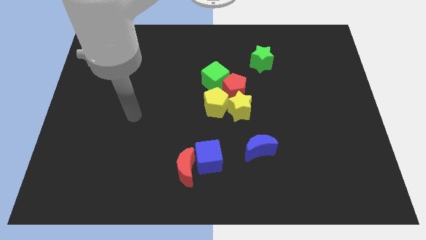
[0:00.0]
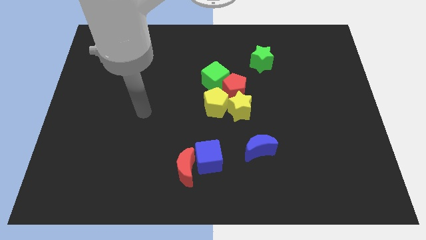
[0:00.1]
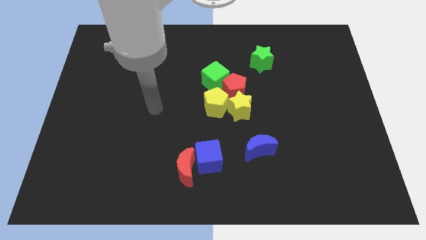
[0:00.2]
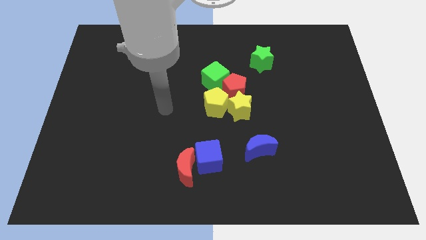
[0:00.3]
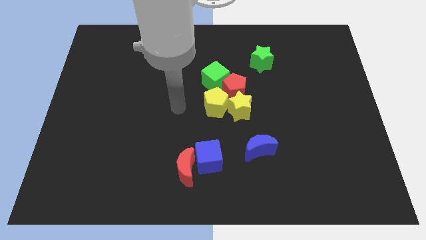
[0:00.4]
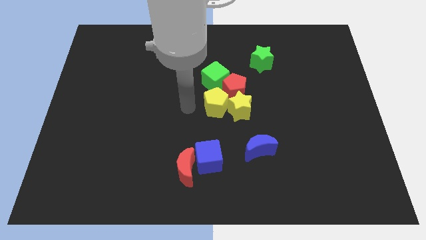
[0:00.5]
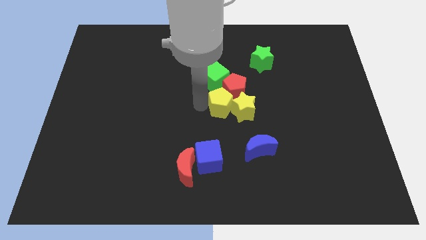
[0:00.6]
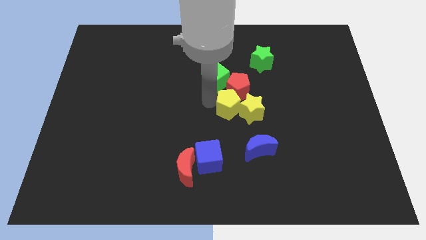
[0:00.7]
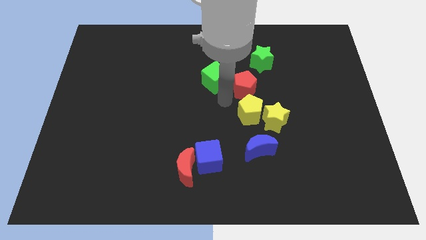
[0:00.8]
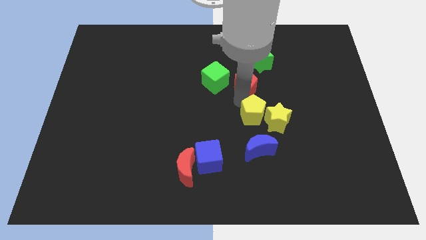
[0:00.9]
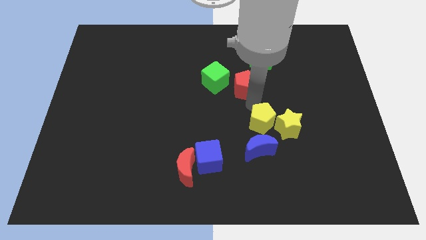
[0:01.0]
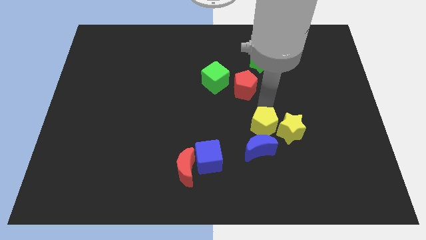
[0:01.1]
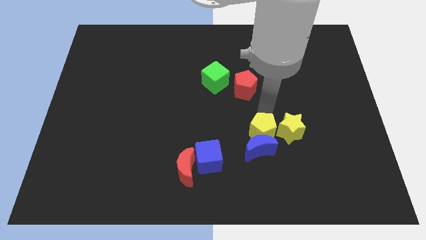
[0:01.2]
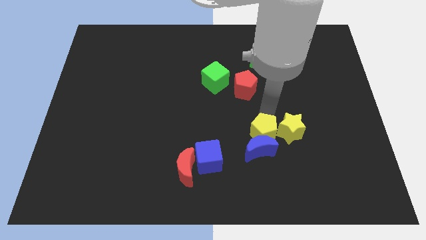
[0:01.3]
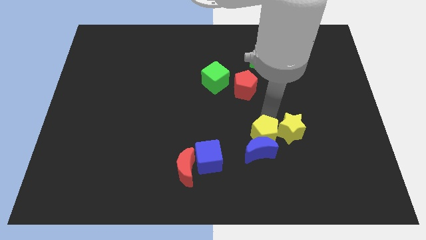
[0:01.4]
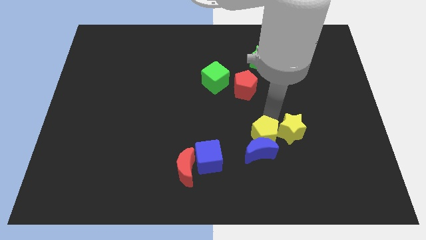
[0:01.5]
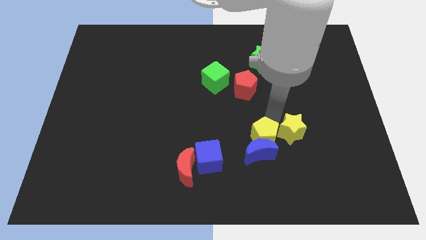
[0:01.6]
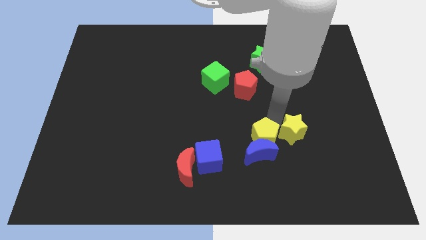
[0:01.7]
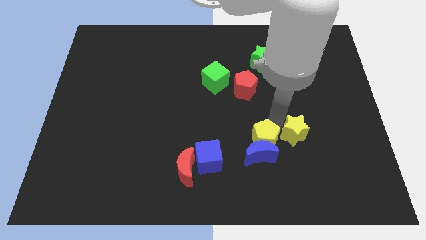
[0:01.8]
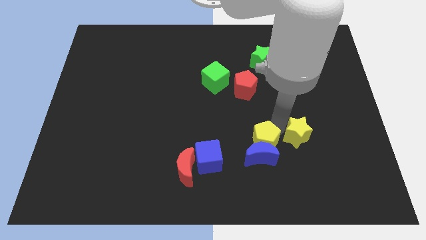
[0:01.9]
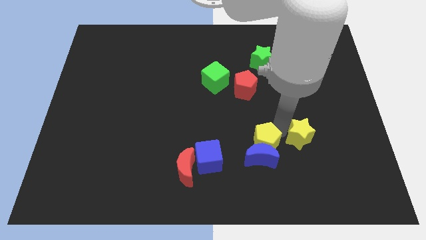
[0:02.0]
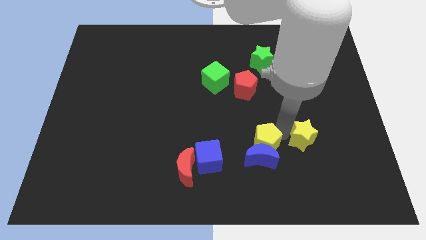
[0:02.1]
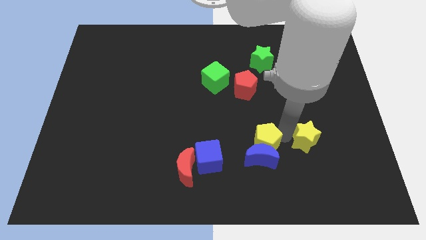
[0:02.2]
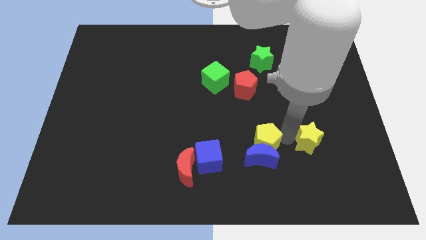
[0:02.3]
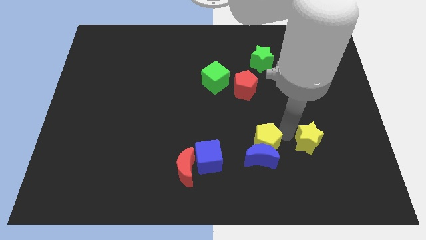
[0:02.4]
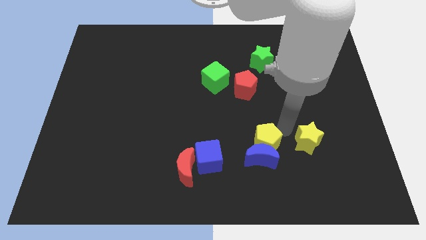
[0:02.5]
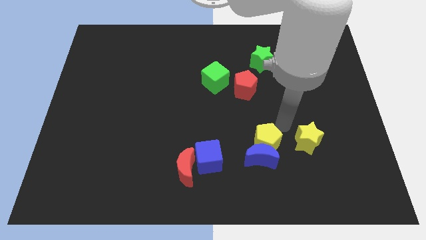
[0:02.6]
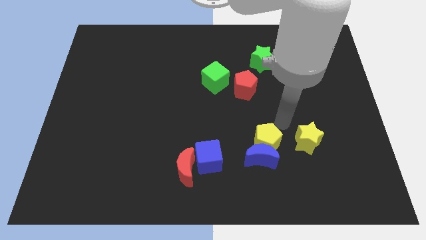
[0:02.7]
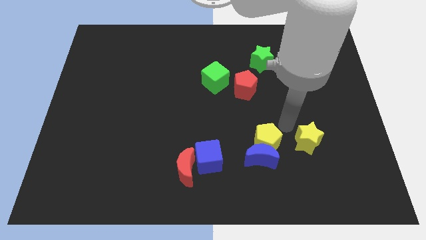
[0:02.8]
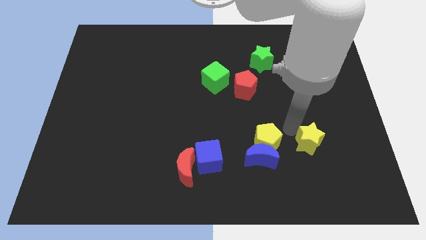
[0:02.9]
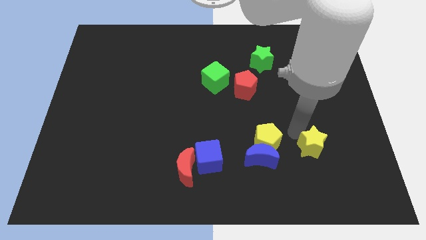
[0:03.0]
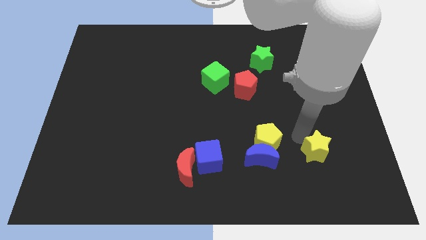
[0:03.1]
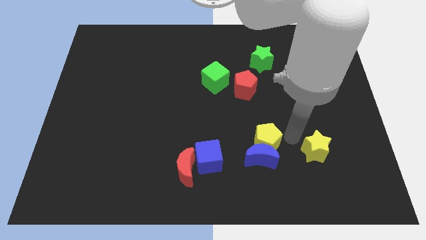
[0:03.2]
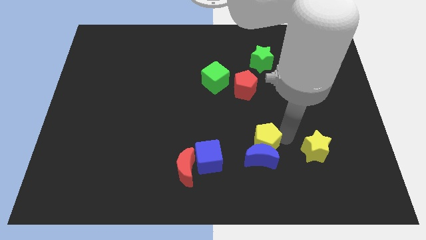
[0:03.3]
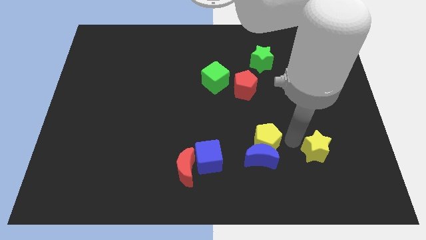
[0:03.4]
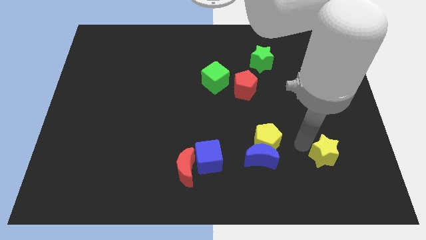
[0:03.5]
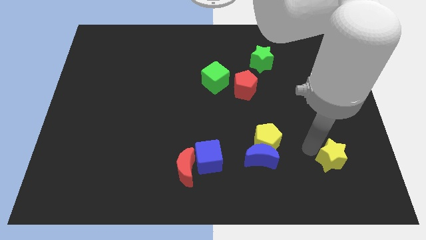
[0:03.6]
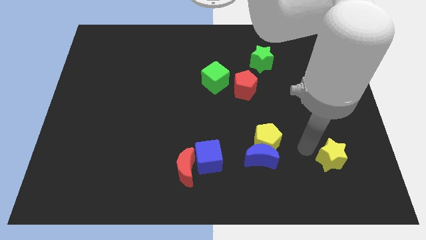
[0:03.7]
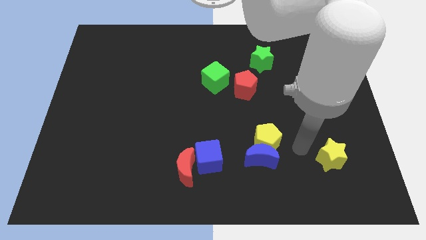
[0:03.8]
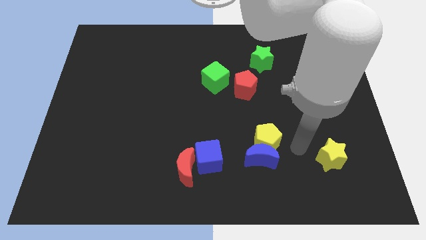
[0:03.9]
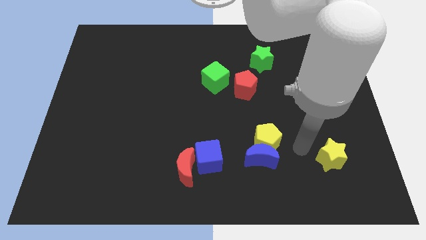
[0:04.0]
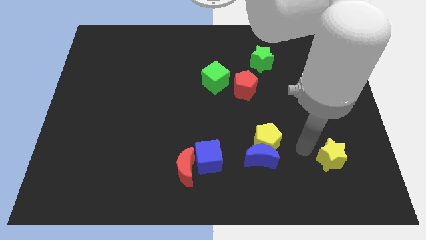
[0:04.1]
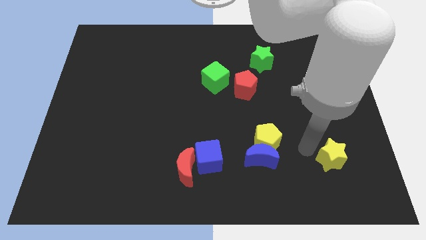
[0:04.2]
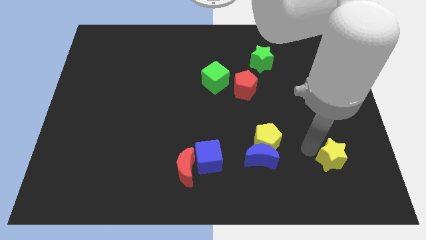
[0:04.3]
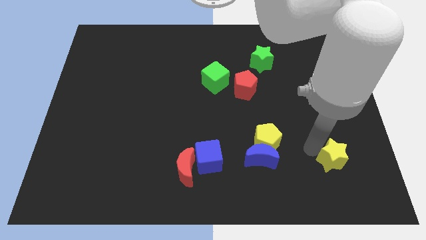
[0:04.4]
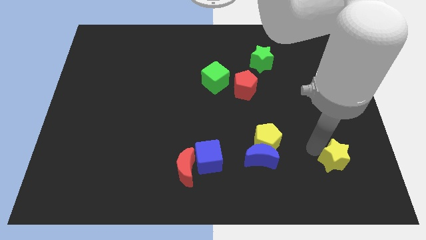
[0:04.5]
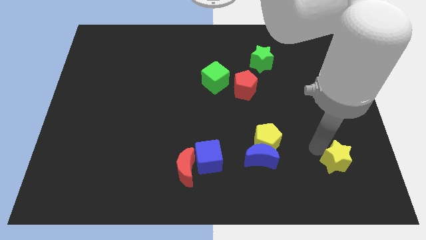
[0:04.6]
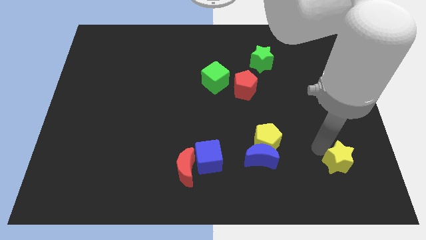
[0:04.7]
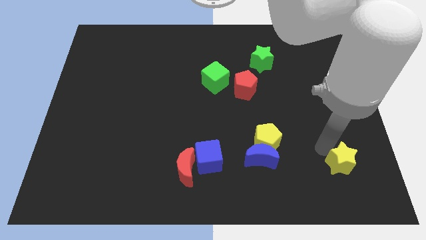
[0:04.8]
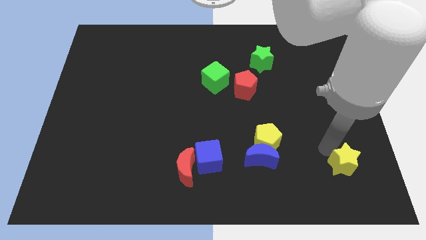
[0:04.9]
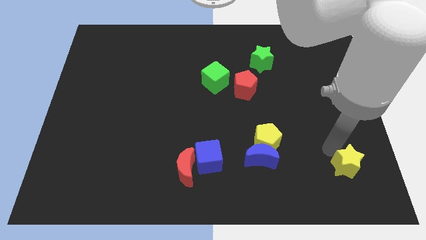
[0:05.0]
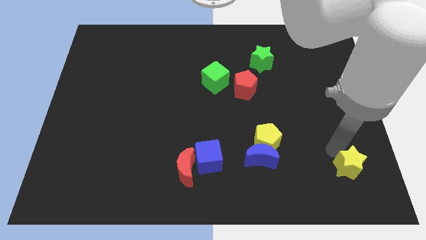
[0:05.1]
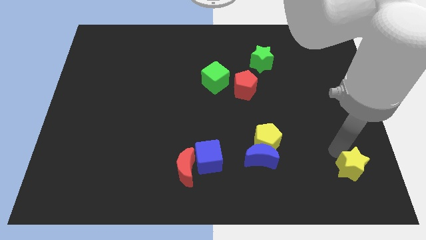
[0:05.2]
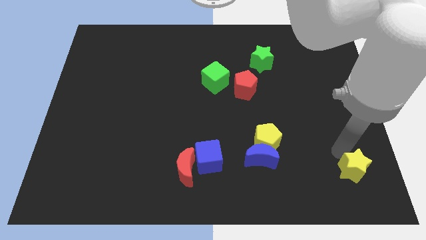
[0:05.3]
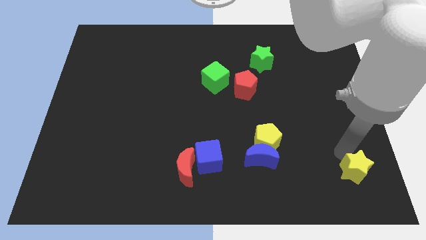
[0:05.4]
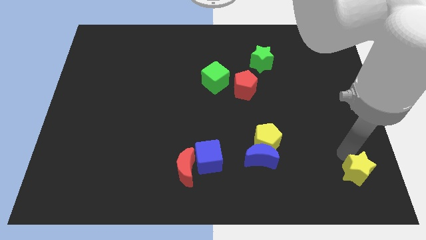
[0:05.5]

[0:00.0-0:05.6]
slide the yellow star to the bottom right of the board

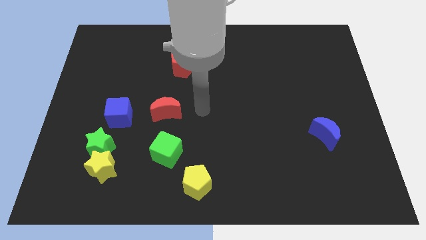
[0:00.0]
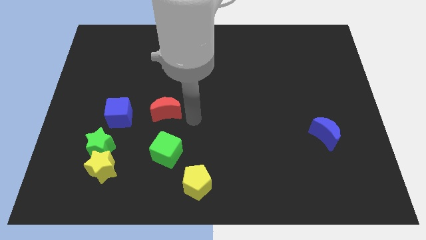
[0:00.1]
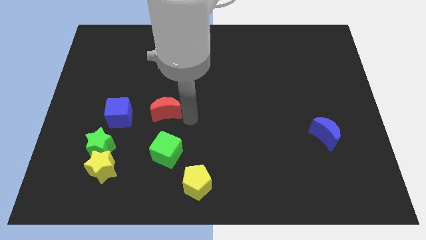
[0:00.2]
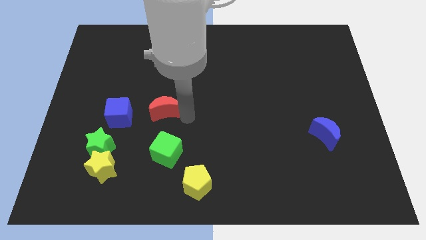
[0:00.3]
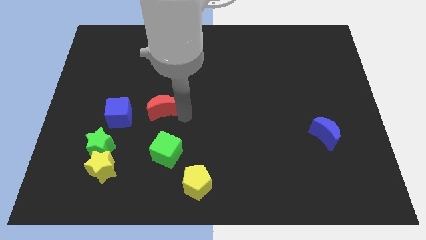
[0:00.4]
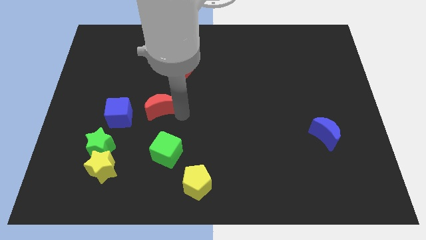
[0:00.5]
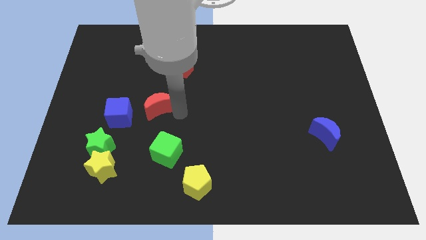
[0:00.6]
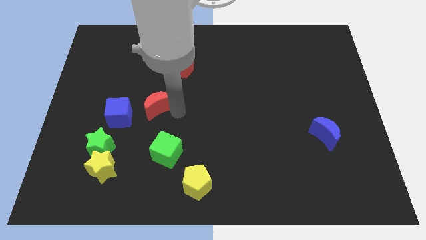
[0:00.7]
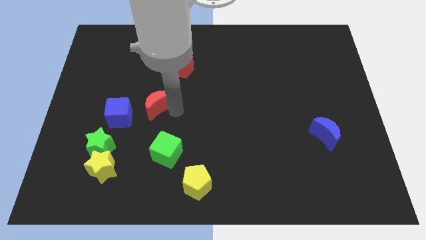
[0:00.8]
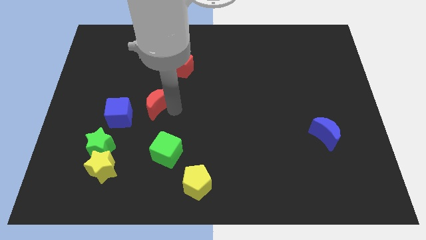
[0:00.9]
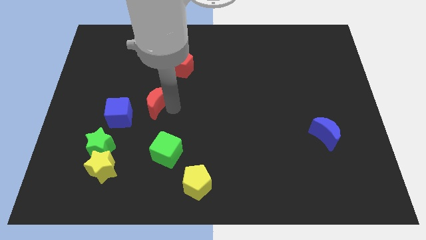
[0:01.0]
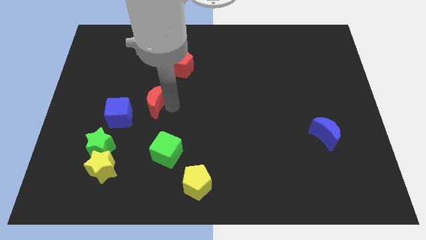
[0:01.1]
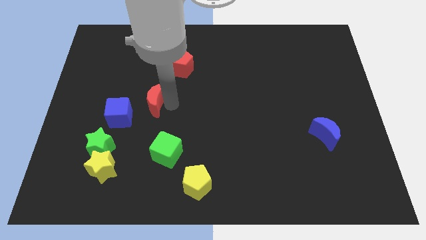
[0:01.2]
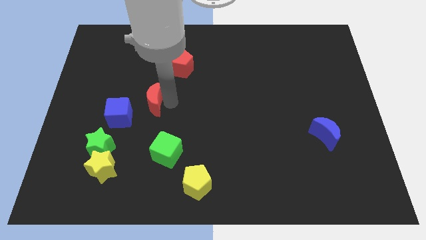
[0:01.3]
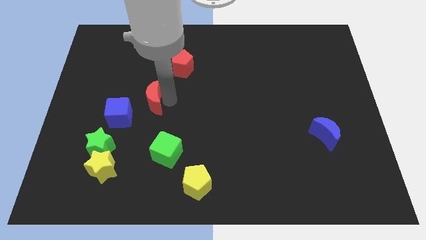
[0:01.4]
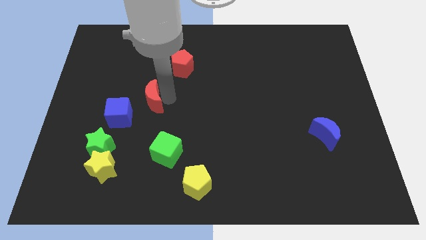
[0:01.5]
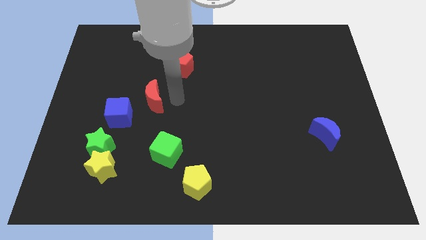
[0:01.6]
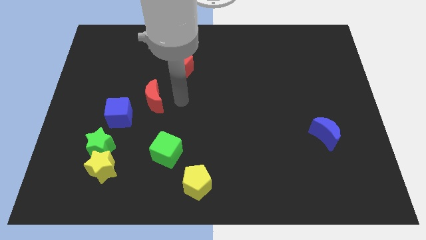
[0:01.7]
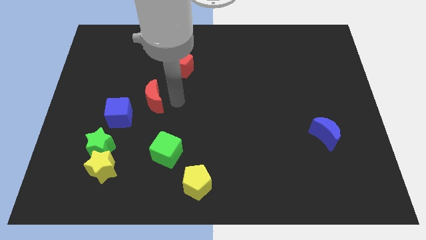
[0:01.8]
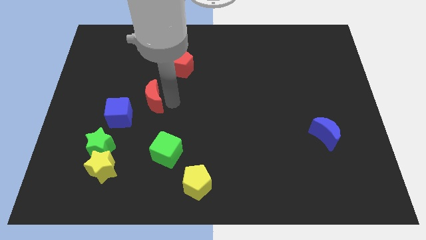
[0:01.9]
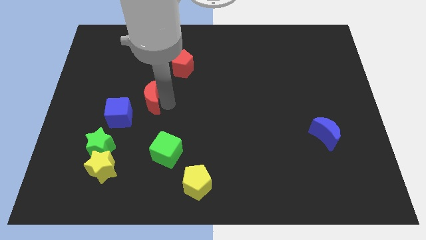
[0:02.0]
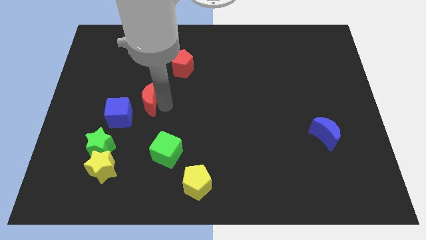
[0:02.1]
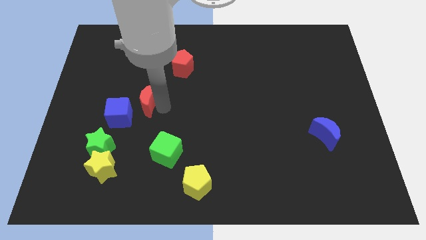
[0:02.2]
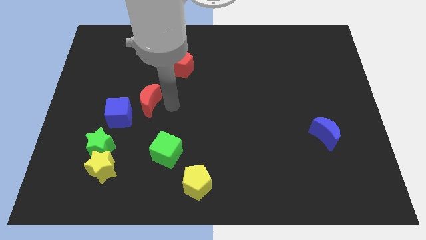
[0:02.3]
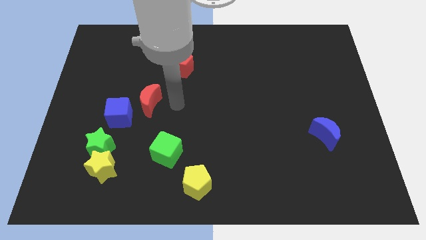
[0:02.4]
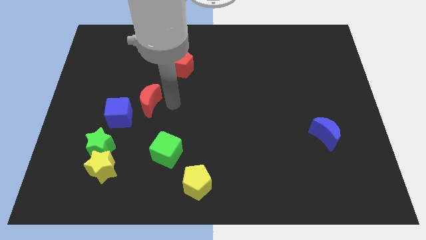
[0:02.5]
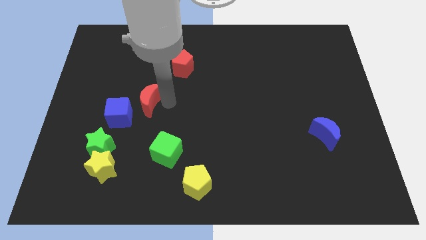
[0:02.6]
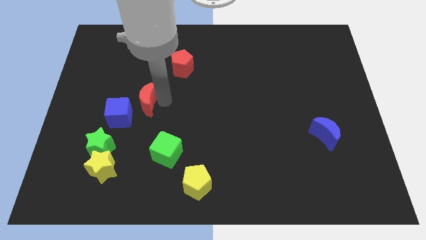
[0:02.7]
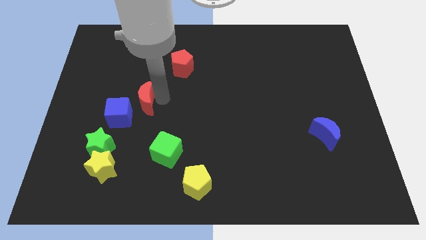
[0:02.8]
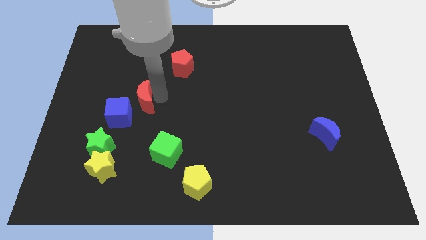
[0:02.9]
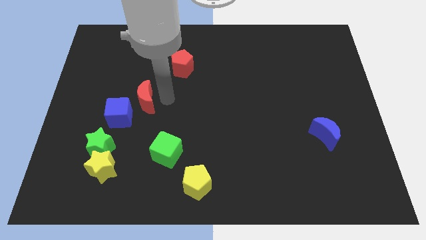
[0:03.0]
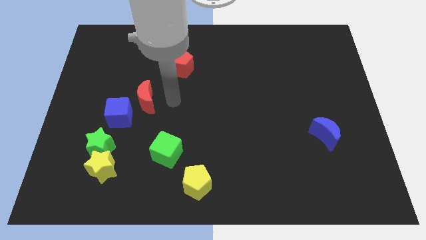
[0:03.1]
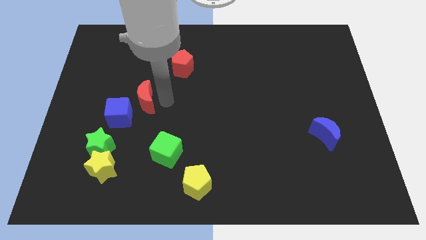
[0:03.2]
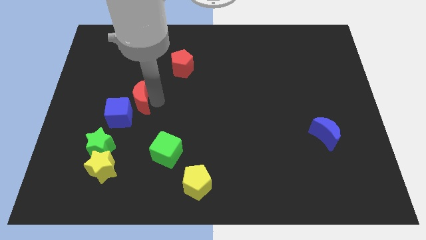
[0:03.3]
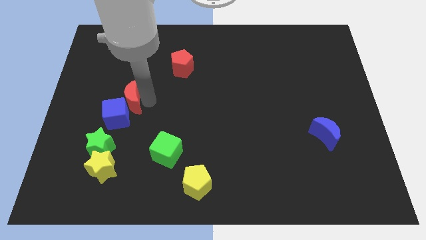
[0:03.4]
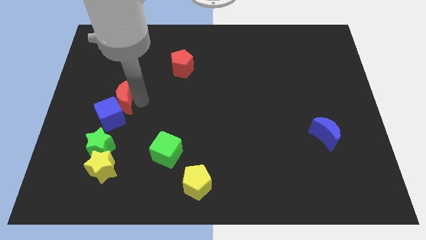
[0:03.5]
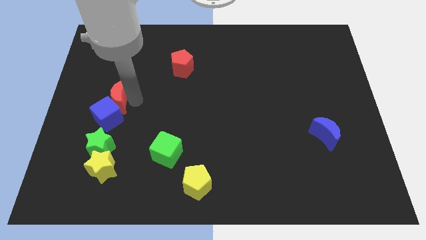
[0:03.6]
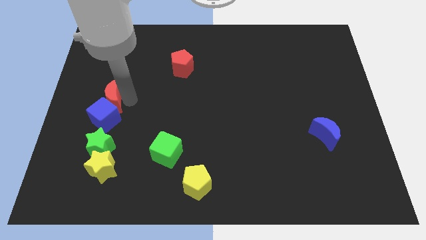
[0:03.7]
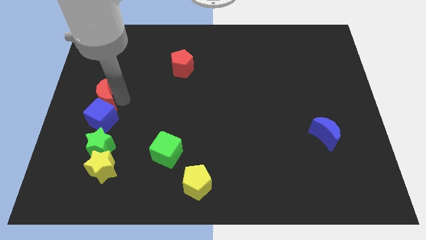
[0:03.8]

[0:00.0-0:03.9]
put the red moon to the left side of the board
